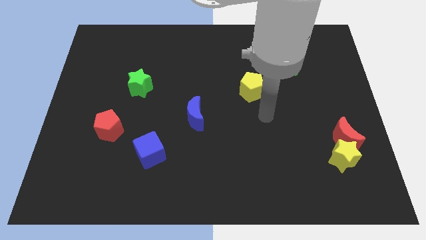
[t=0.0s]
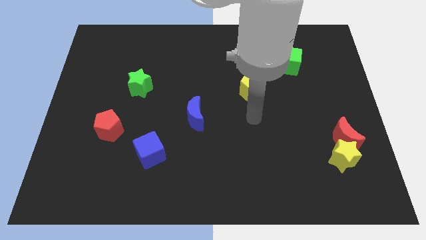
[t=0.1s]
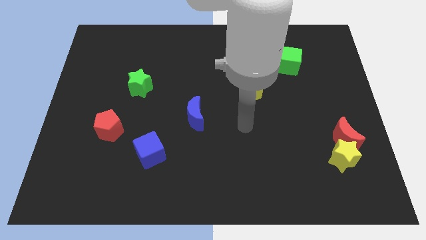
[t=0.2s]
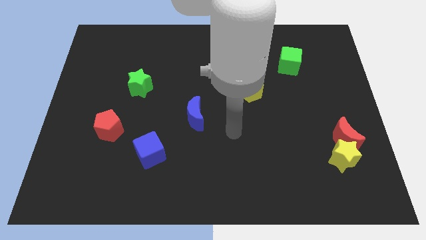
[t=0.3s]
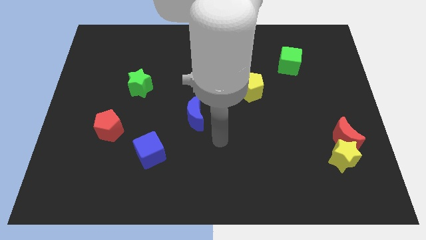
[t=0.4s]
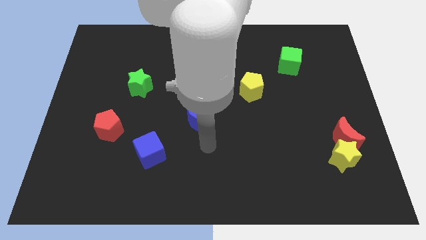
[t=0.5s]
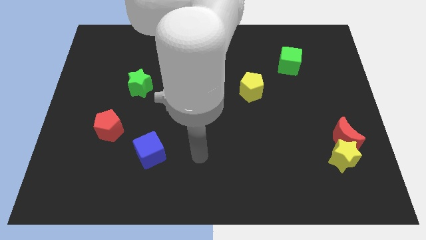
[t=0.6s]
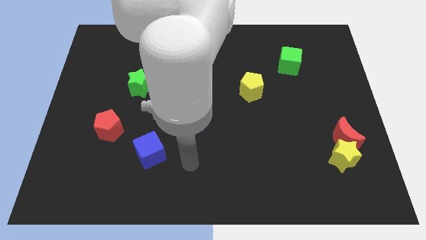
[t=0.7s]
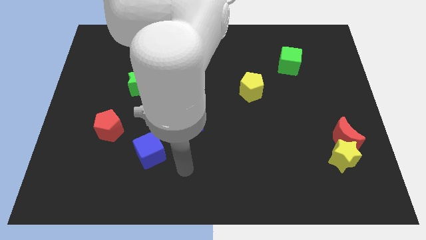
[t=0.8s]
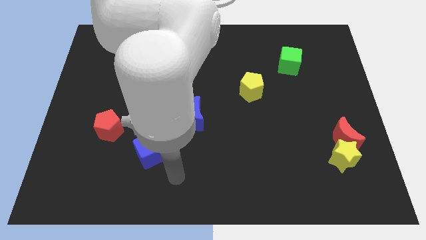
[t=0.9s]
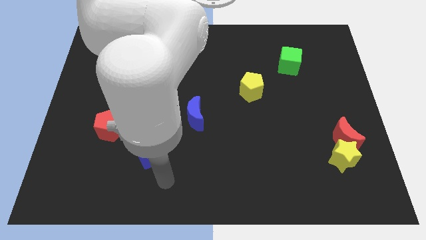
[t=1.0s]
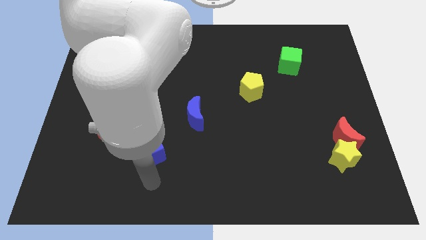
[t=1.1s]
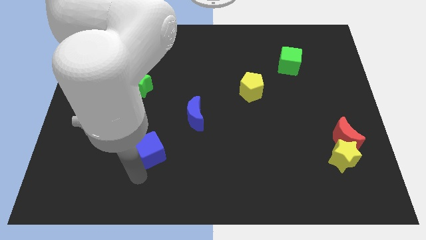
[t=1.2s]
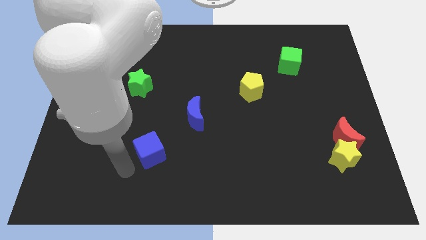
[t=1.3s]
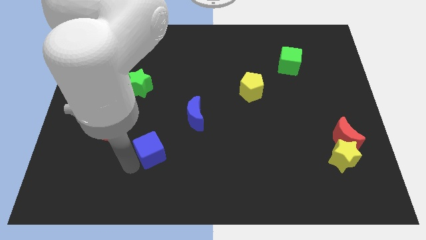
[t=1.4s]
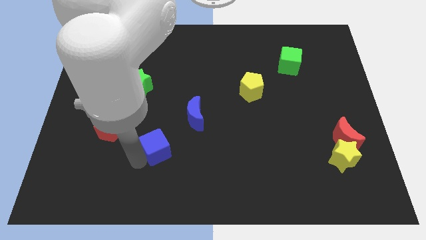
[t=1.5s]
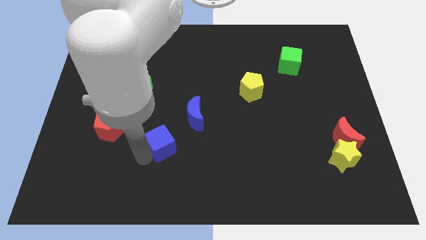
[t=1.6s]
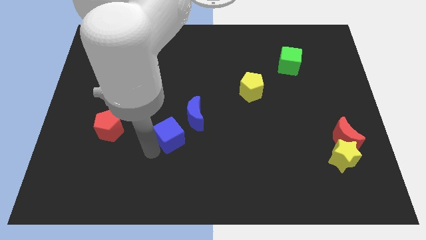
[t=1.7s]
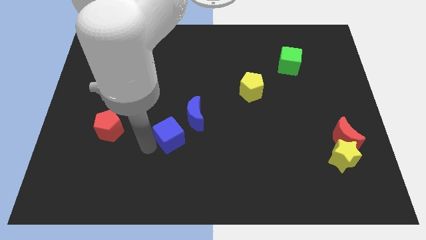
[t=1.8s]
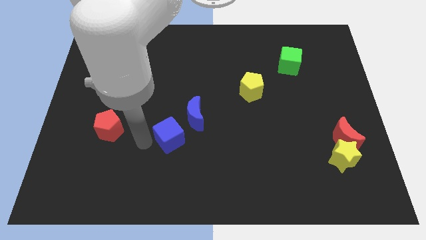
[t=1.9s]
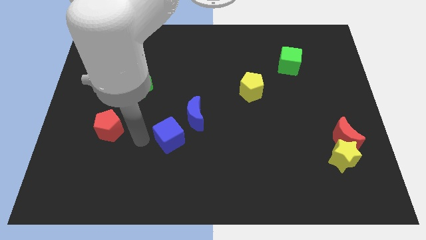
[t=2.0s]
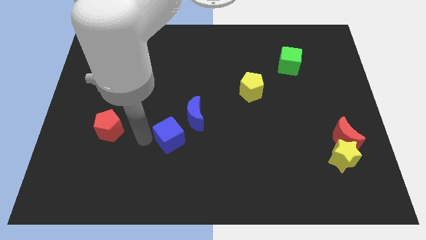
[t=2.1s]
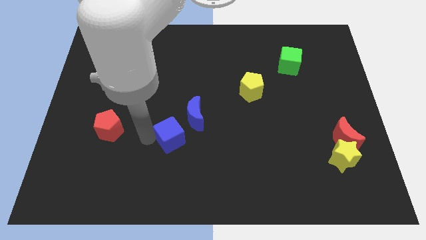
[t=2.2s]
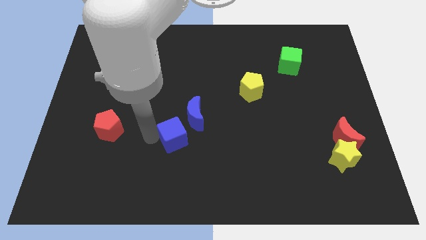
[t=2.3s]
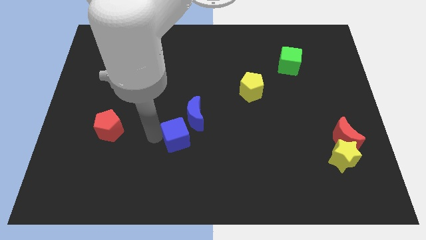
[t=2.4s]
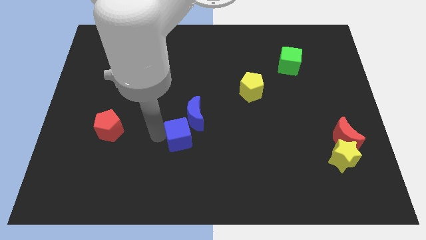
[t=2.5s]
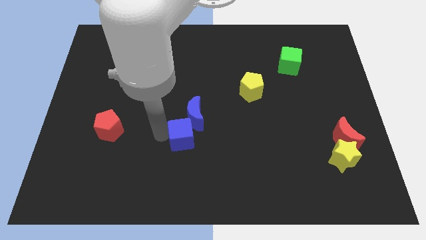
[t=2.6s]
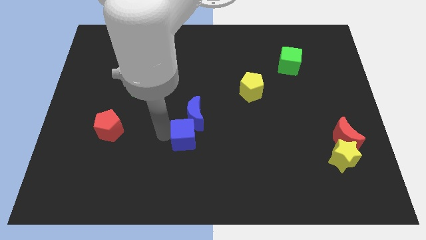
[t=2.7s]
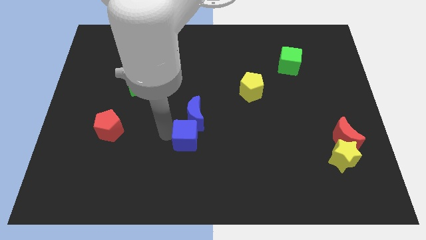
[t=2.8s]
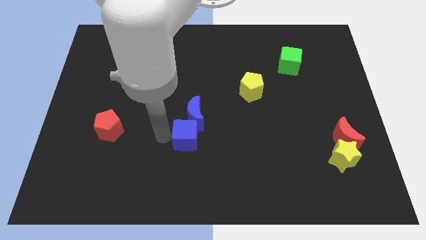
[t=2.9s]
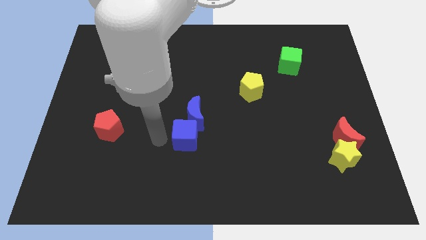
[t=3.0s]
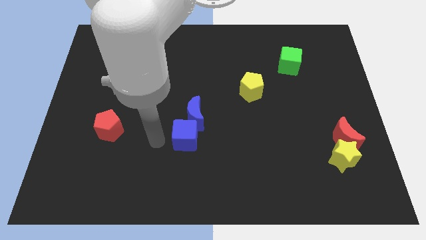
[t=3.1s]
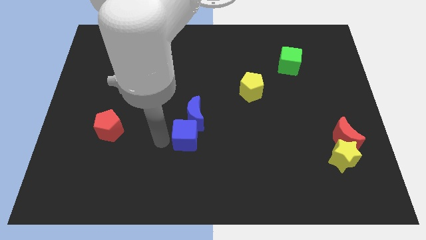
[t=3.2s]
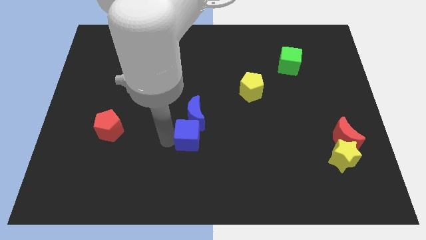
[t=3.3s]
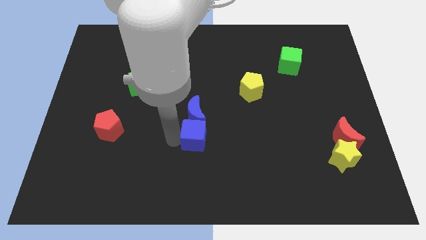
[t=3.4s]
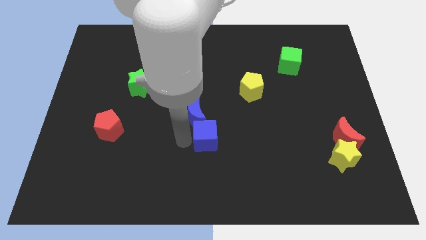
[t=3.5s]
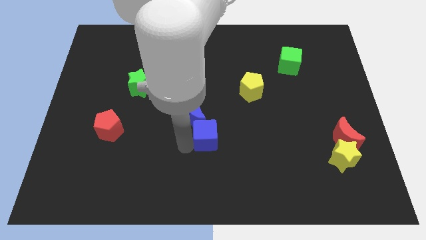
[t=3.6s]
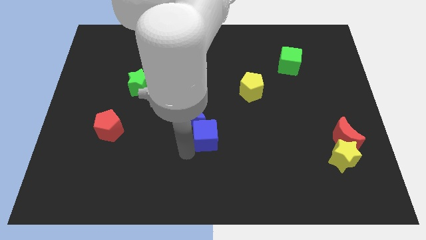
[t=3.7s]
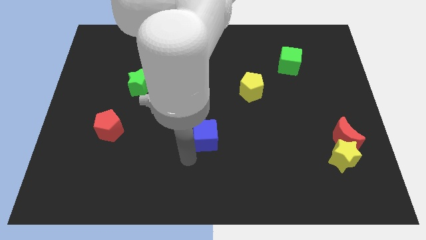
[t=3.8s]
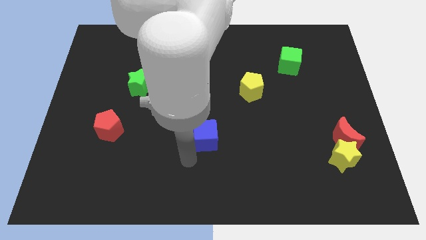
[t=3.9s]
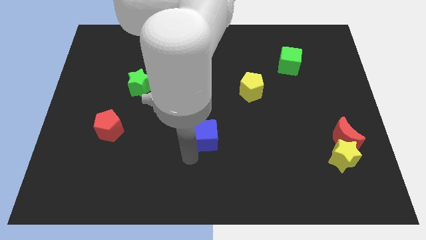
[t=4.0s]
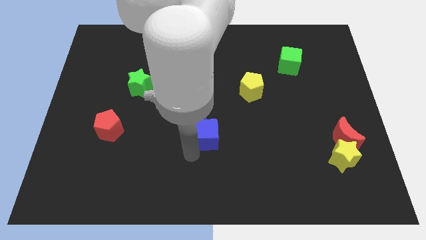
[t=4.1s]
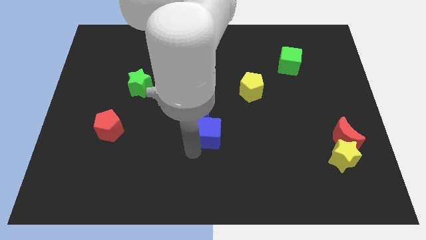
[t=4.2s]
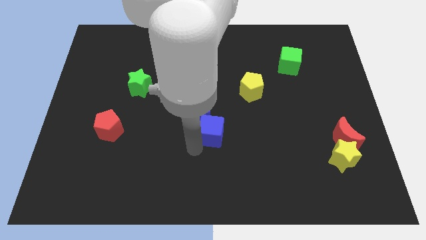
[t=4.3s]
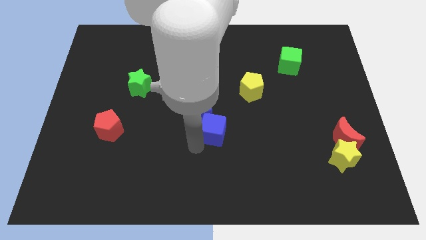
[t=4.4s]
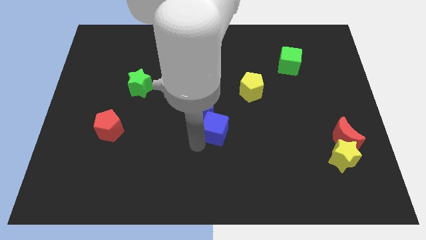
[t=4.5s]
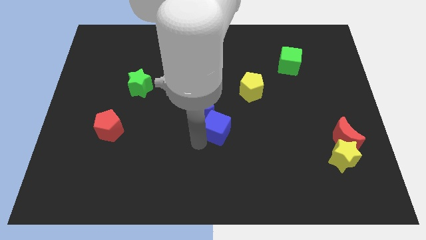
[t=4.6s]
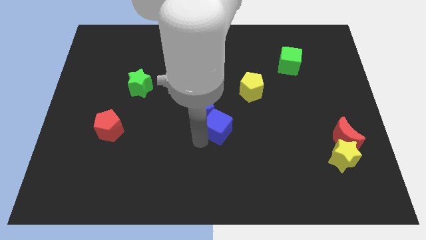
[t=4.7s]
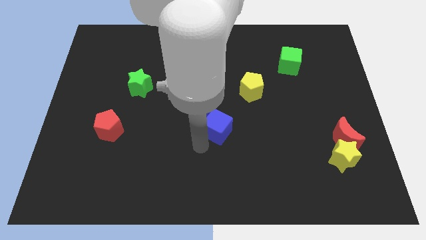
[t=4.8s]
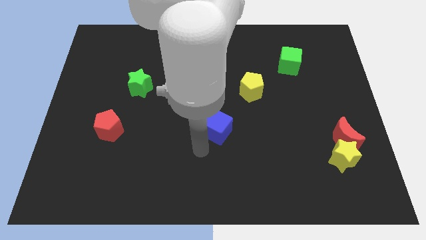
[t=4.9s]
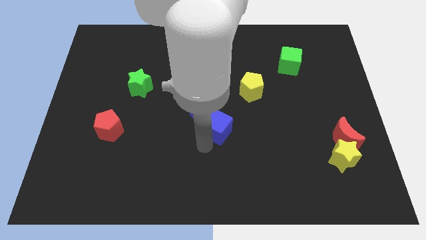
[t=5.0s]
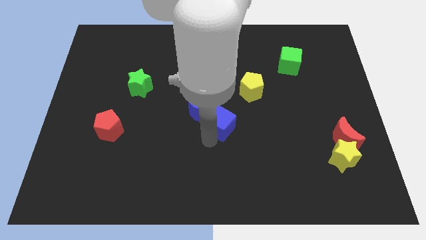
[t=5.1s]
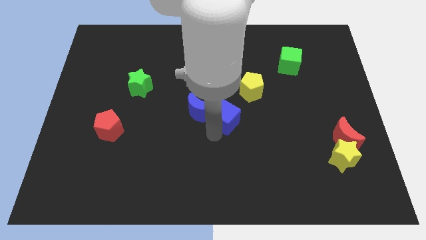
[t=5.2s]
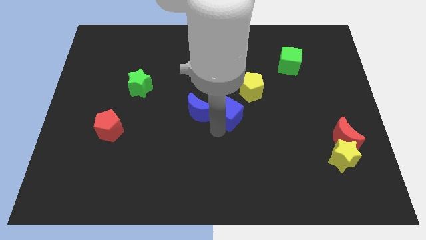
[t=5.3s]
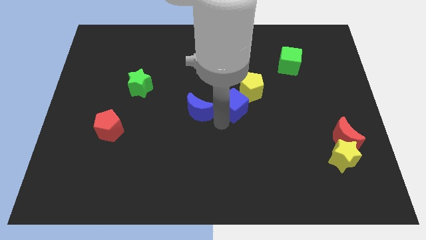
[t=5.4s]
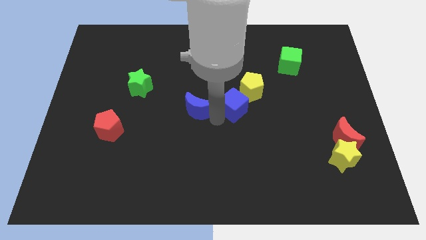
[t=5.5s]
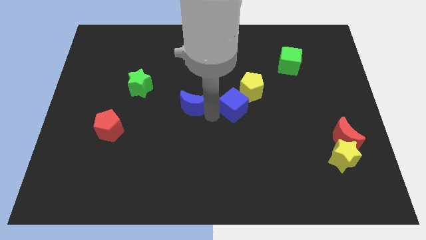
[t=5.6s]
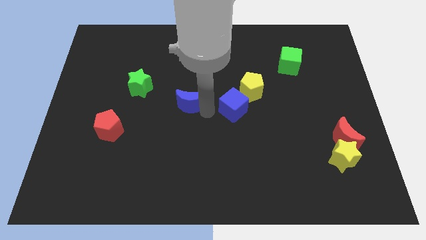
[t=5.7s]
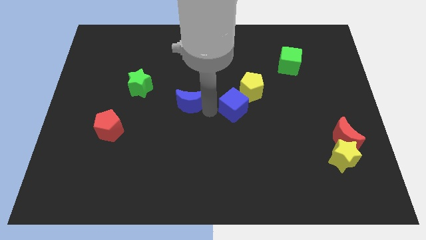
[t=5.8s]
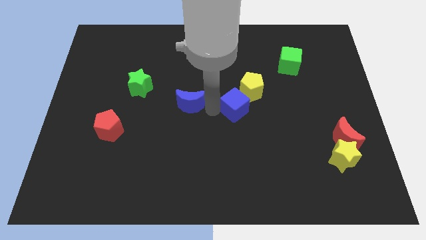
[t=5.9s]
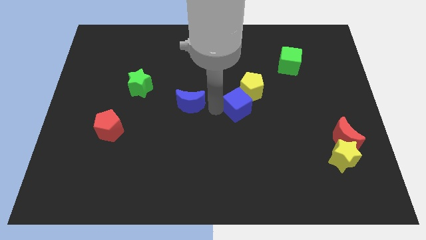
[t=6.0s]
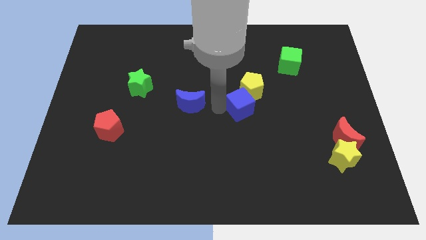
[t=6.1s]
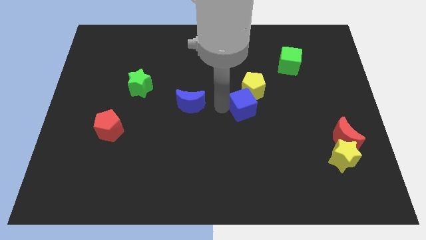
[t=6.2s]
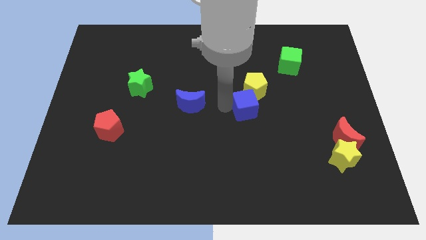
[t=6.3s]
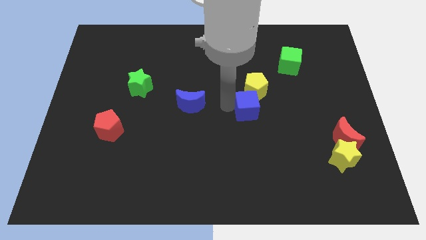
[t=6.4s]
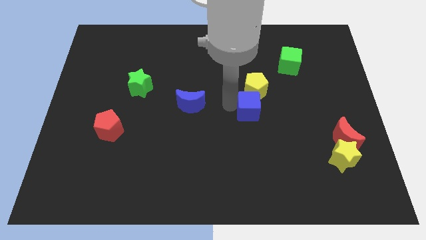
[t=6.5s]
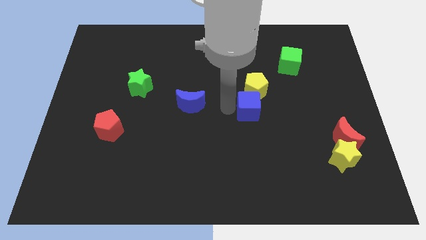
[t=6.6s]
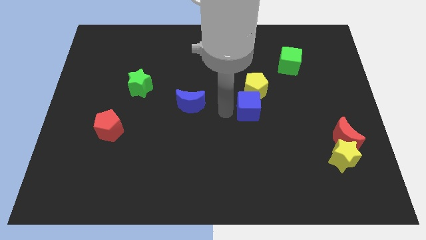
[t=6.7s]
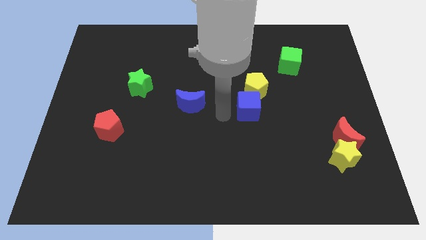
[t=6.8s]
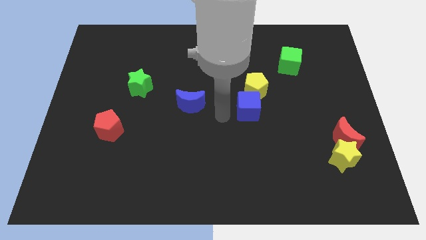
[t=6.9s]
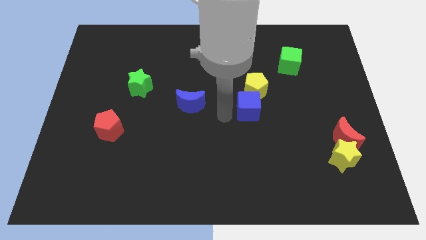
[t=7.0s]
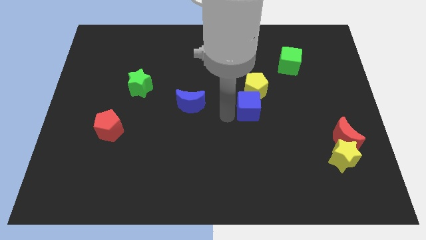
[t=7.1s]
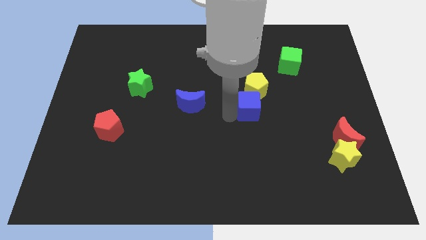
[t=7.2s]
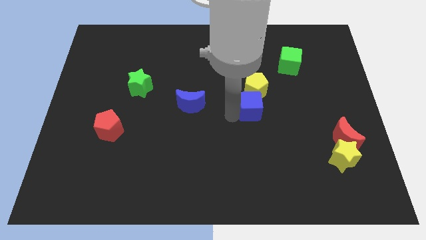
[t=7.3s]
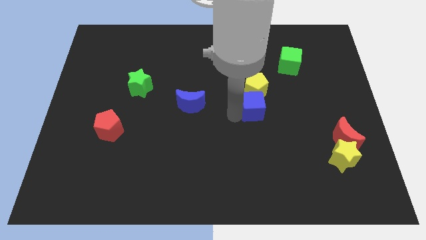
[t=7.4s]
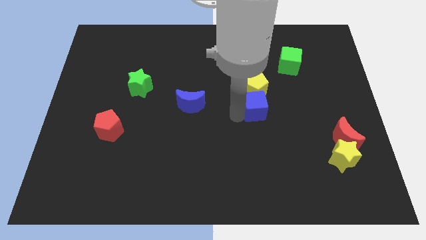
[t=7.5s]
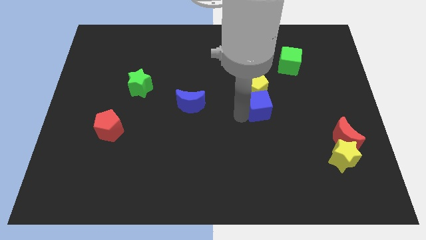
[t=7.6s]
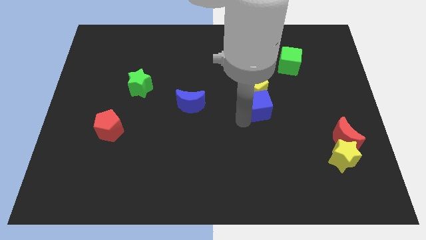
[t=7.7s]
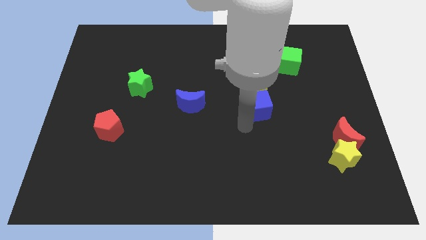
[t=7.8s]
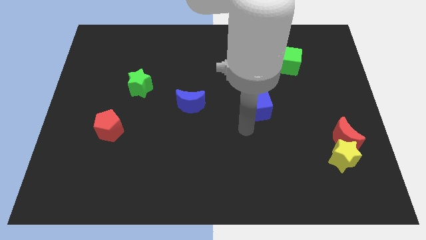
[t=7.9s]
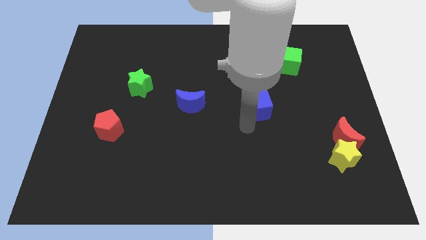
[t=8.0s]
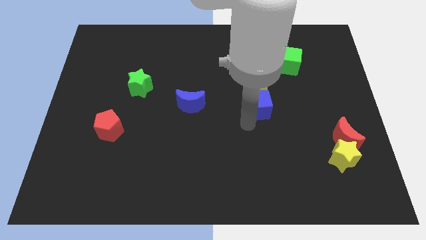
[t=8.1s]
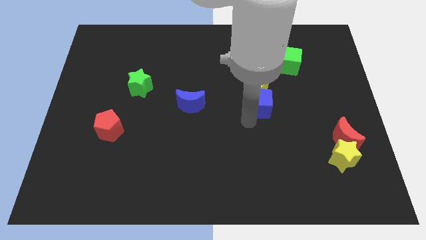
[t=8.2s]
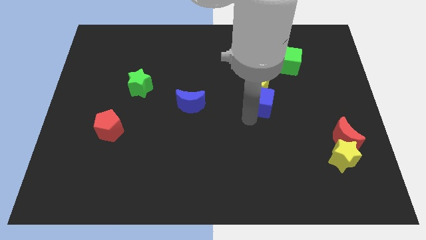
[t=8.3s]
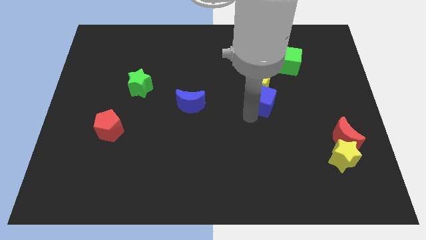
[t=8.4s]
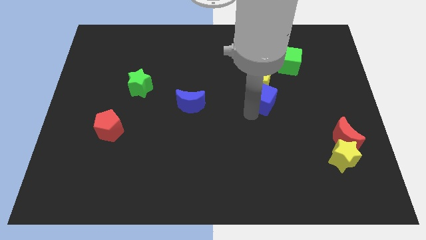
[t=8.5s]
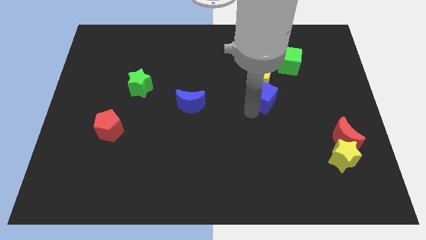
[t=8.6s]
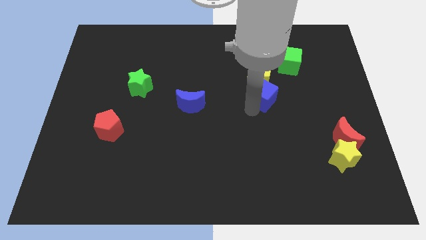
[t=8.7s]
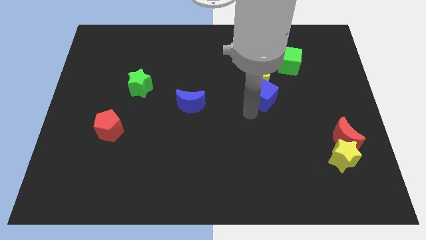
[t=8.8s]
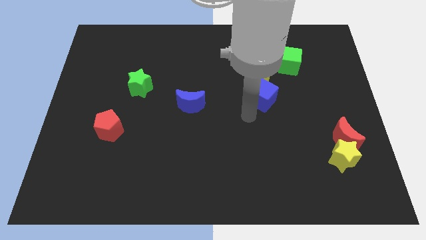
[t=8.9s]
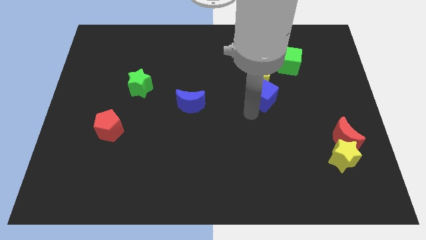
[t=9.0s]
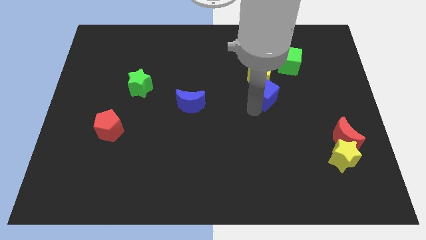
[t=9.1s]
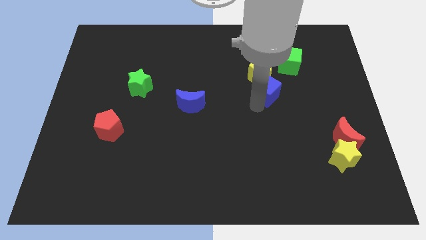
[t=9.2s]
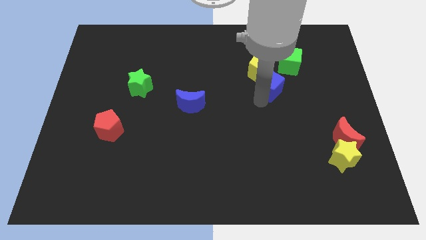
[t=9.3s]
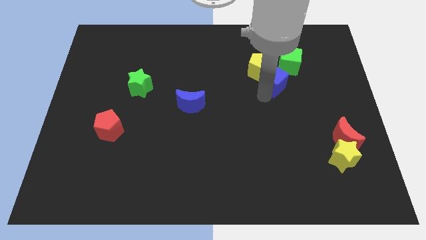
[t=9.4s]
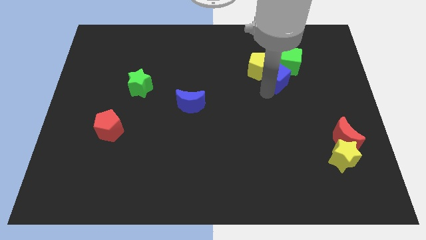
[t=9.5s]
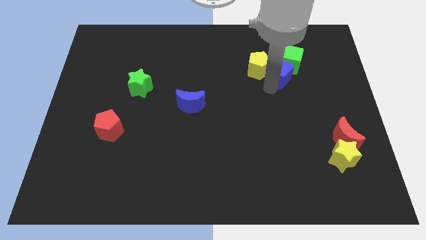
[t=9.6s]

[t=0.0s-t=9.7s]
put the blue cube to the green cube
